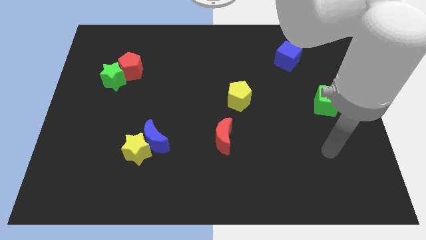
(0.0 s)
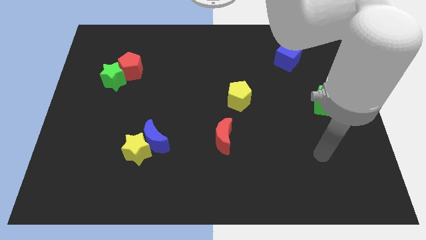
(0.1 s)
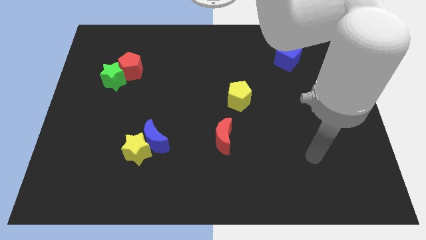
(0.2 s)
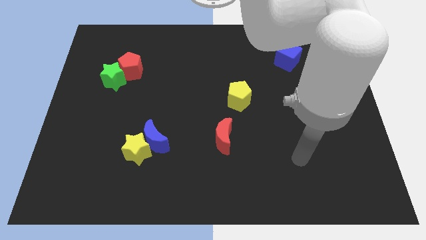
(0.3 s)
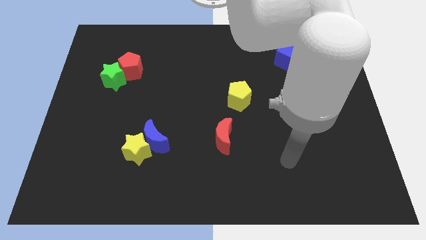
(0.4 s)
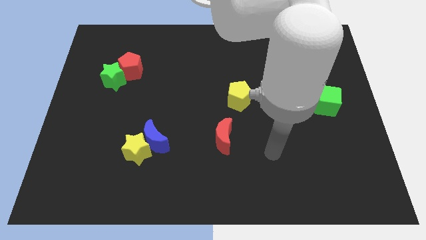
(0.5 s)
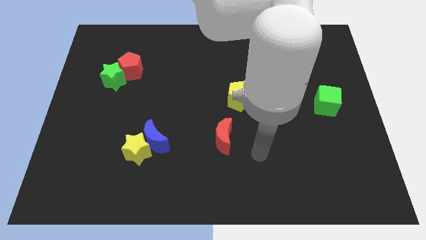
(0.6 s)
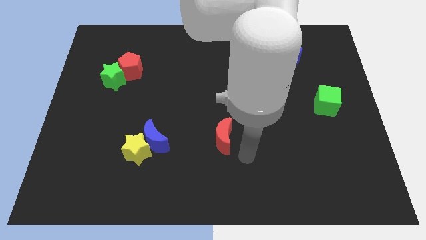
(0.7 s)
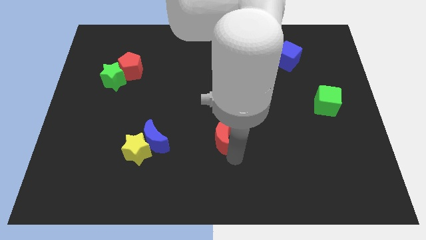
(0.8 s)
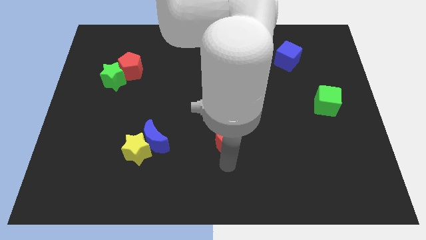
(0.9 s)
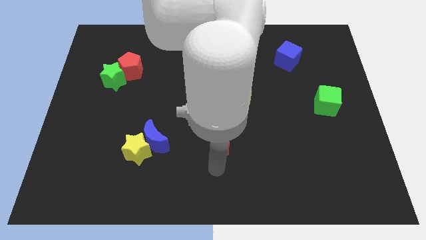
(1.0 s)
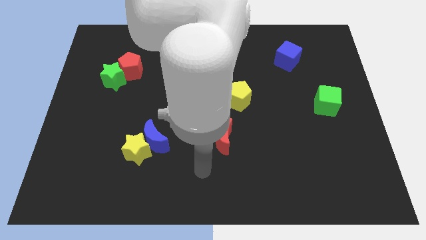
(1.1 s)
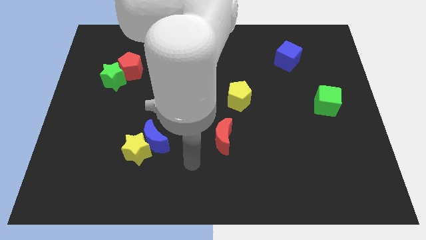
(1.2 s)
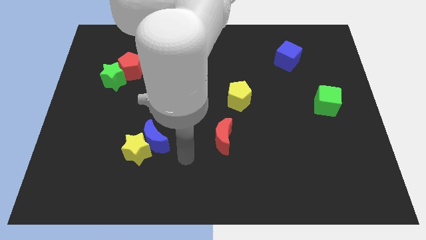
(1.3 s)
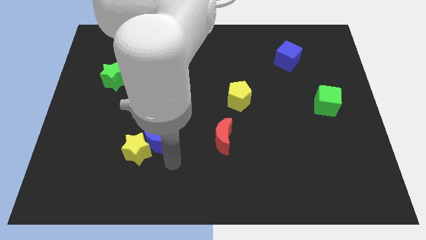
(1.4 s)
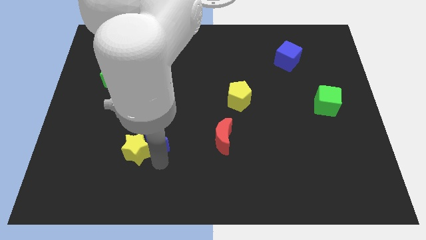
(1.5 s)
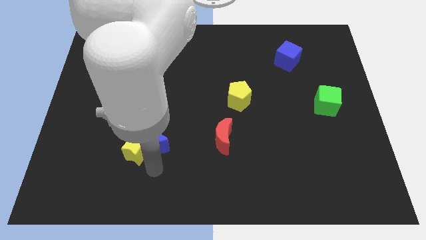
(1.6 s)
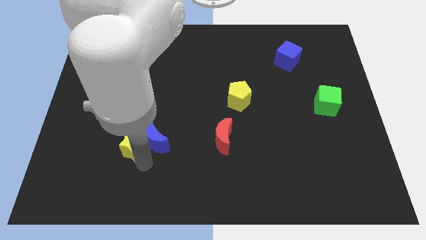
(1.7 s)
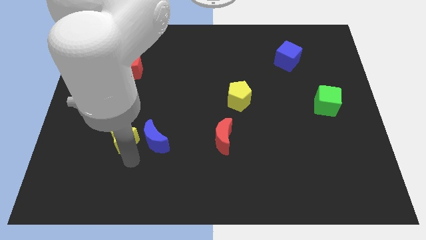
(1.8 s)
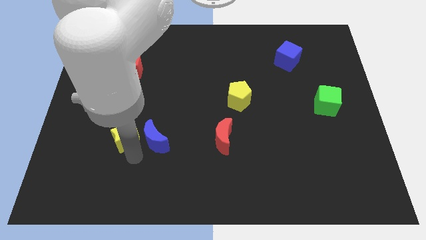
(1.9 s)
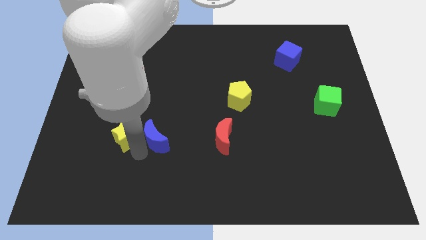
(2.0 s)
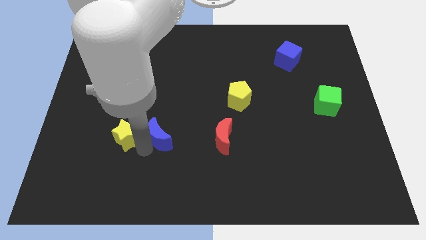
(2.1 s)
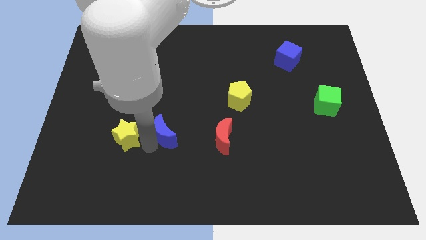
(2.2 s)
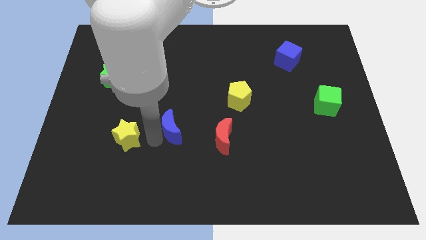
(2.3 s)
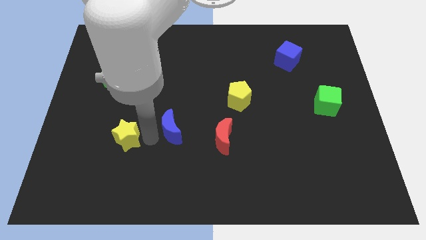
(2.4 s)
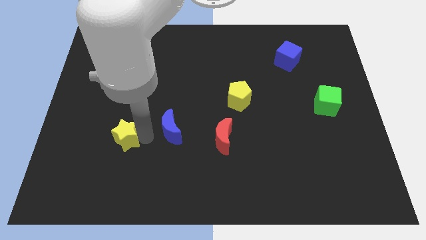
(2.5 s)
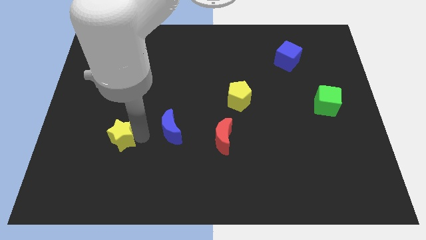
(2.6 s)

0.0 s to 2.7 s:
pull the blue moon apart from the yellow star

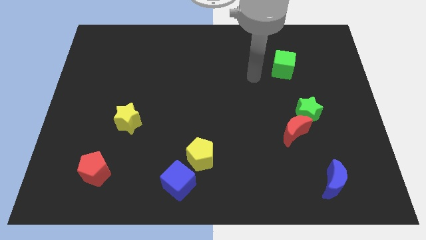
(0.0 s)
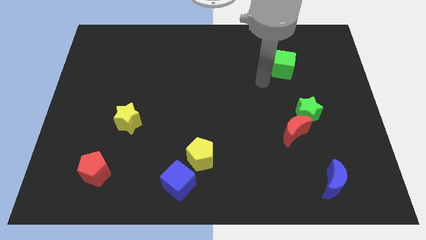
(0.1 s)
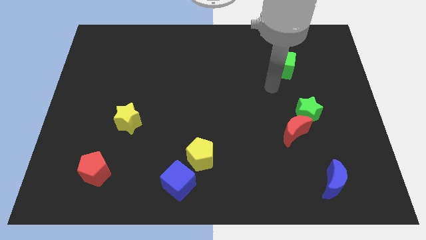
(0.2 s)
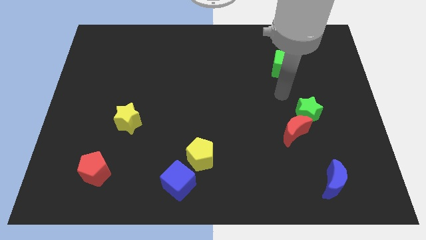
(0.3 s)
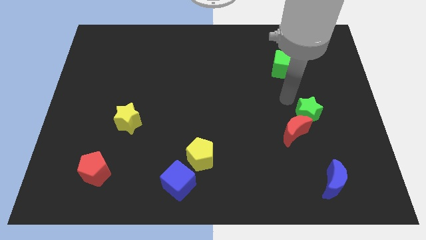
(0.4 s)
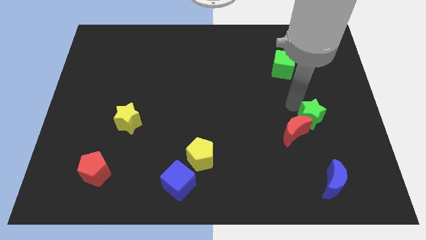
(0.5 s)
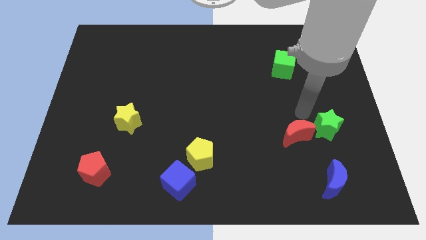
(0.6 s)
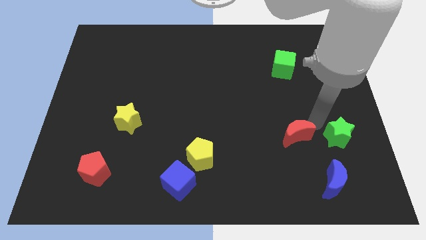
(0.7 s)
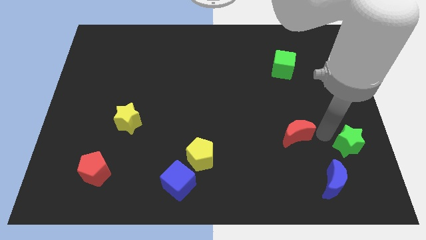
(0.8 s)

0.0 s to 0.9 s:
separate the red moon from the green star

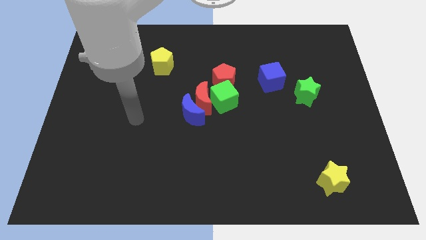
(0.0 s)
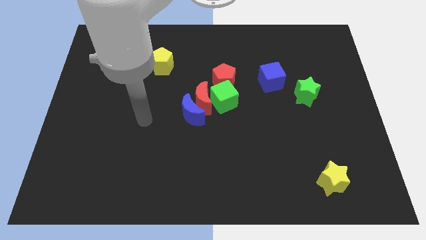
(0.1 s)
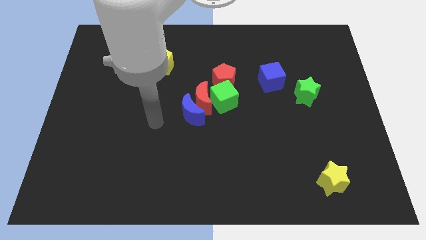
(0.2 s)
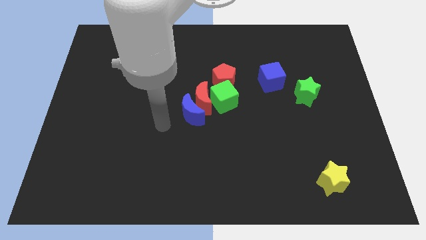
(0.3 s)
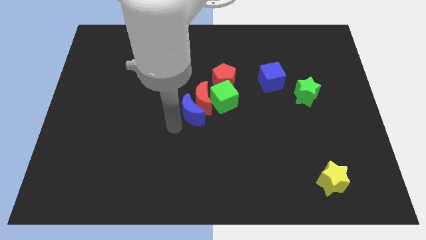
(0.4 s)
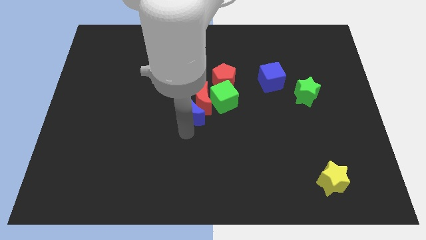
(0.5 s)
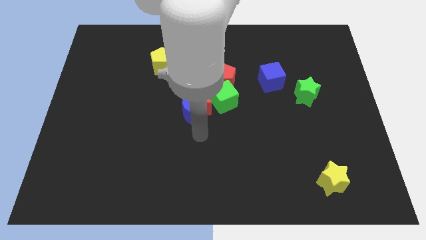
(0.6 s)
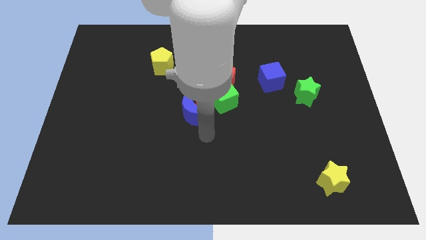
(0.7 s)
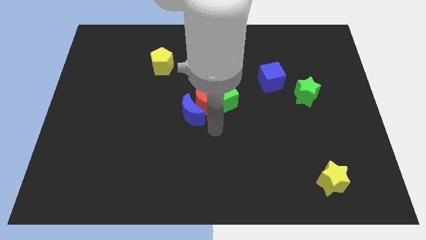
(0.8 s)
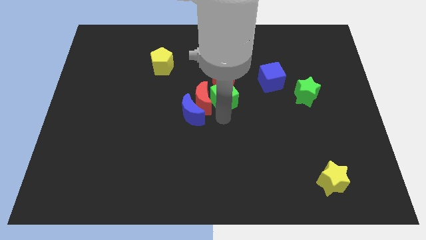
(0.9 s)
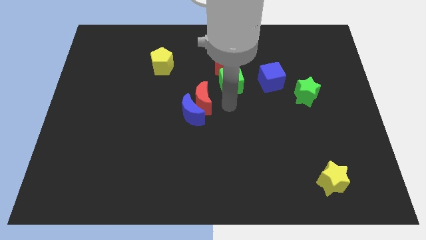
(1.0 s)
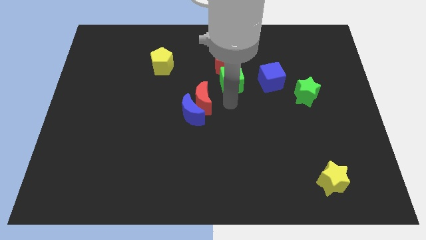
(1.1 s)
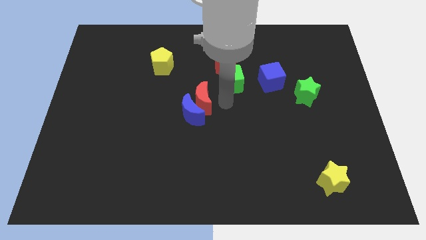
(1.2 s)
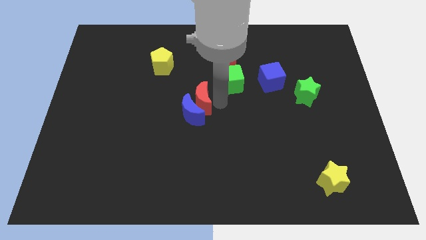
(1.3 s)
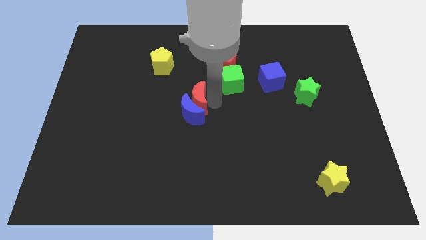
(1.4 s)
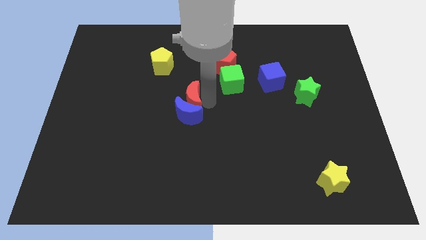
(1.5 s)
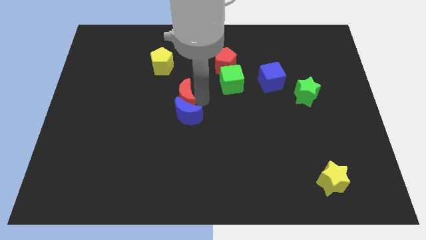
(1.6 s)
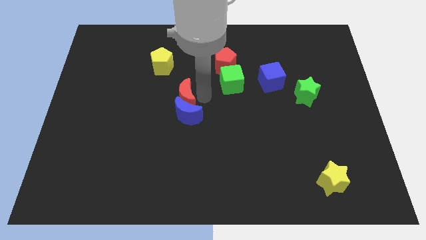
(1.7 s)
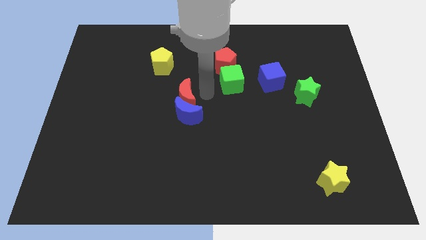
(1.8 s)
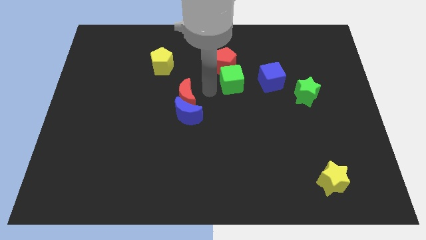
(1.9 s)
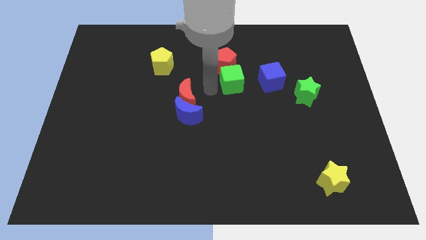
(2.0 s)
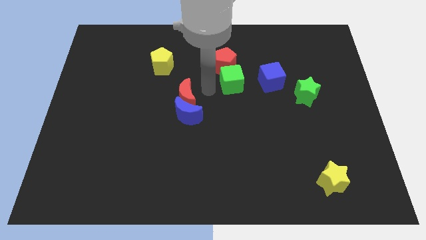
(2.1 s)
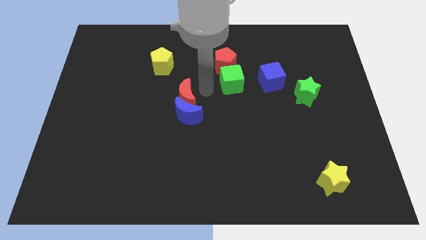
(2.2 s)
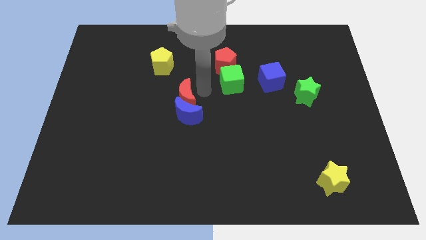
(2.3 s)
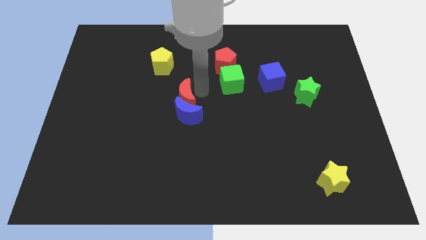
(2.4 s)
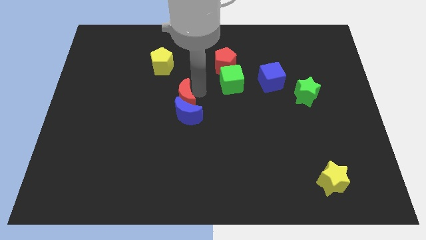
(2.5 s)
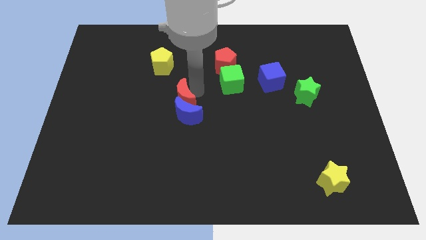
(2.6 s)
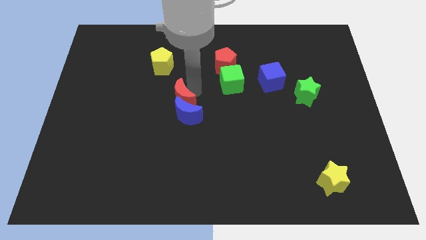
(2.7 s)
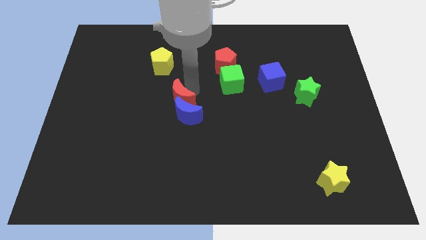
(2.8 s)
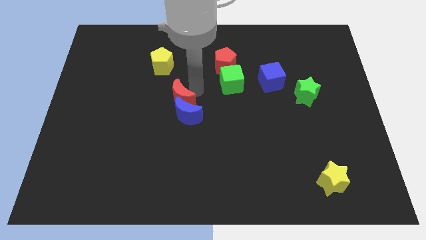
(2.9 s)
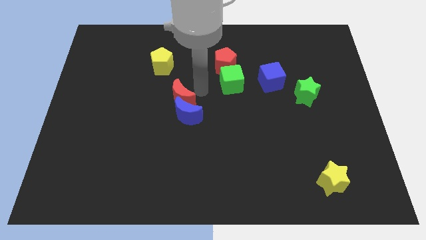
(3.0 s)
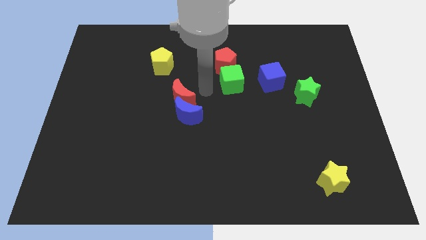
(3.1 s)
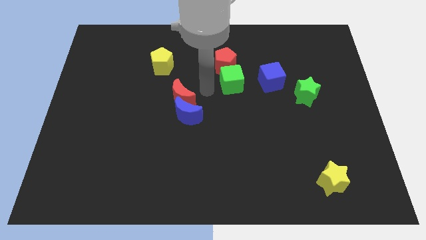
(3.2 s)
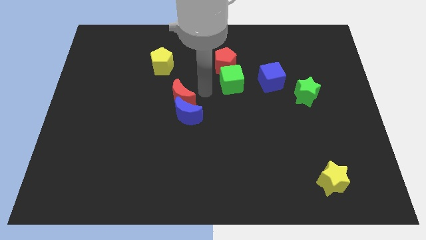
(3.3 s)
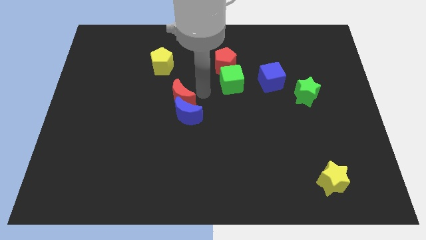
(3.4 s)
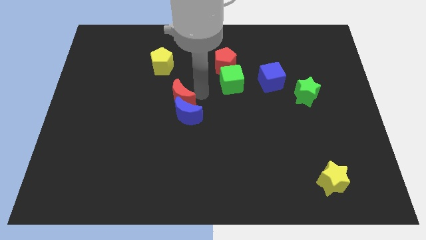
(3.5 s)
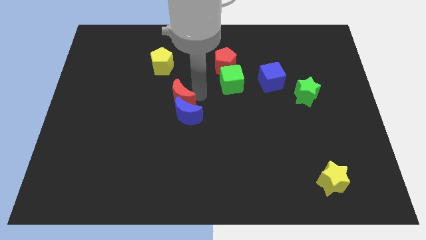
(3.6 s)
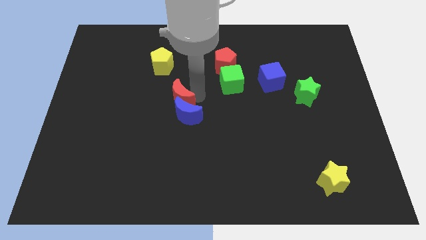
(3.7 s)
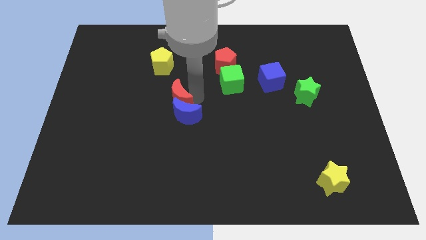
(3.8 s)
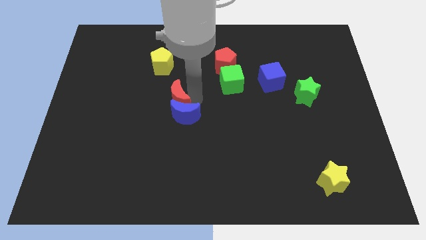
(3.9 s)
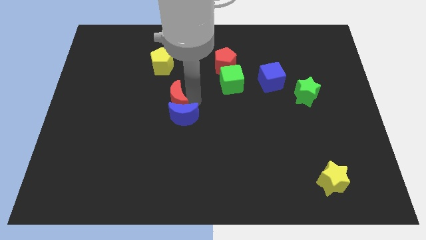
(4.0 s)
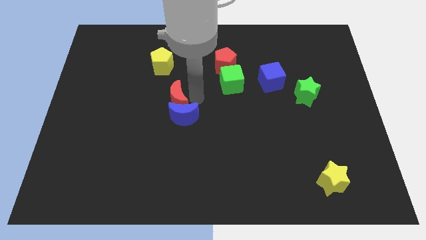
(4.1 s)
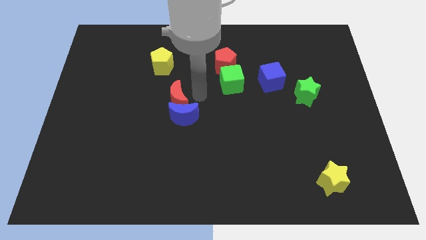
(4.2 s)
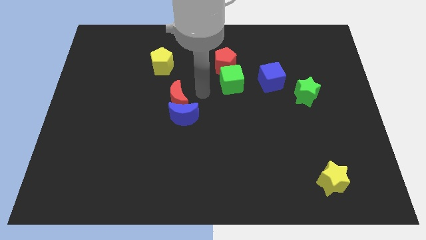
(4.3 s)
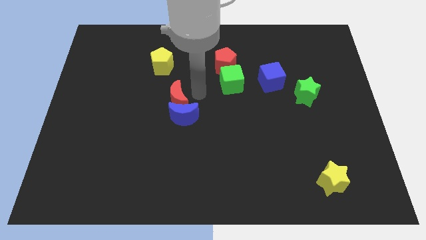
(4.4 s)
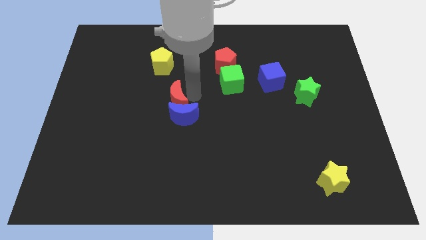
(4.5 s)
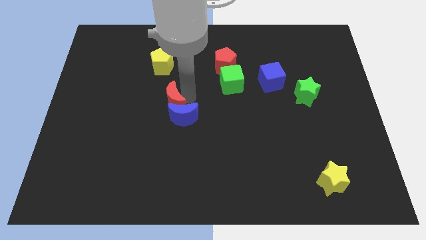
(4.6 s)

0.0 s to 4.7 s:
move the red moon away from the blue moon, green cube, and red pentagon

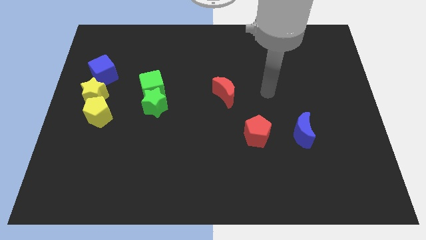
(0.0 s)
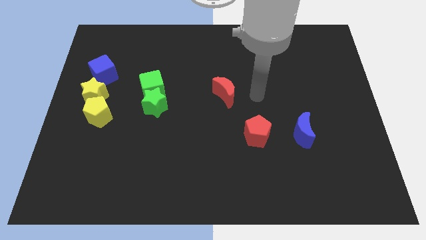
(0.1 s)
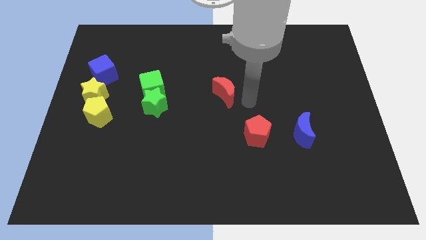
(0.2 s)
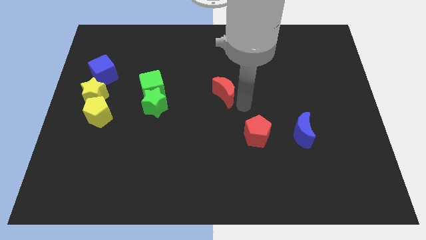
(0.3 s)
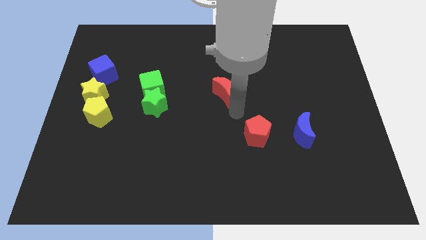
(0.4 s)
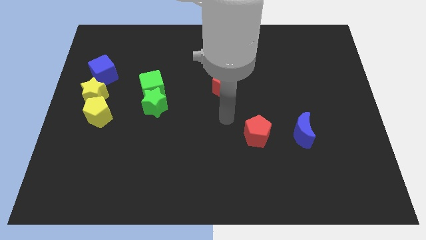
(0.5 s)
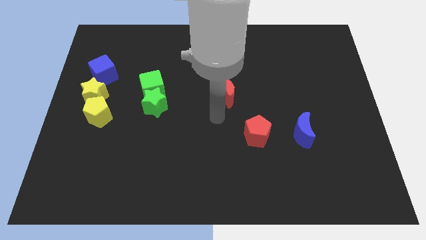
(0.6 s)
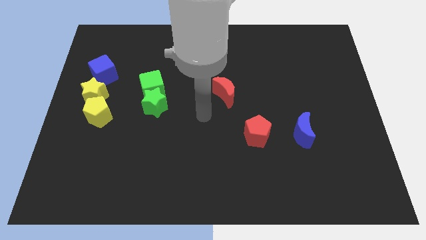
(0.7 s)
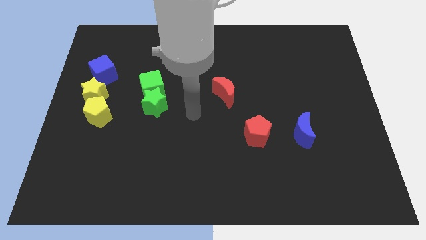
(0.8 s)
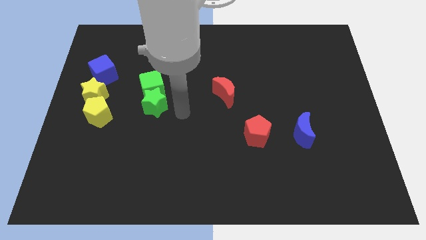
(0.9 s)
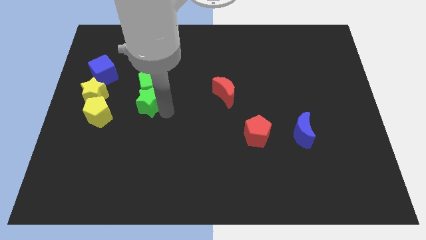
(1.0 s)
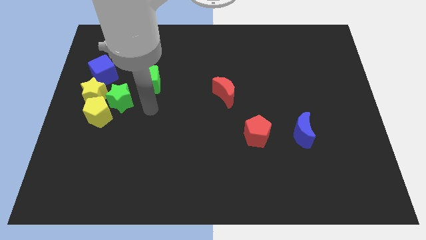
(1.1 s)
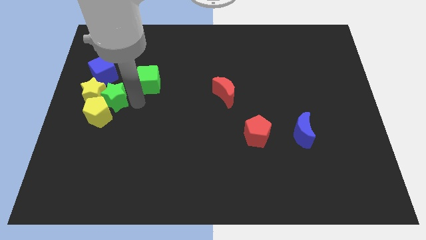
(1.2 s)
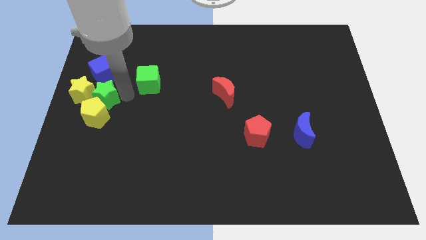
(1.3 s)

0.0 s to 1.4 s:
separate the green cube from the green star
